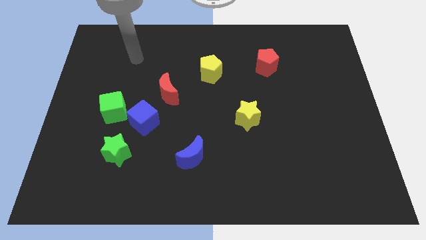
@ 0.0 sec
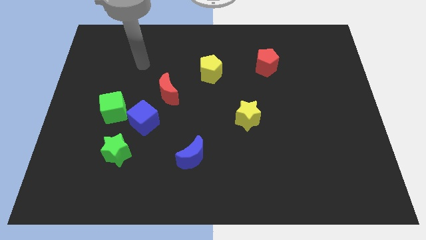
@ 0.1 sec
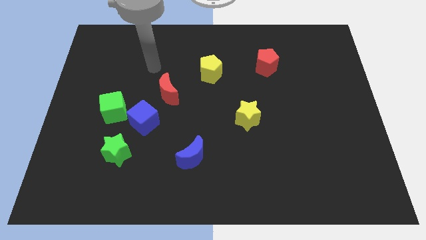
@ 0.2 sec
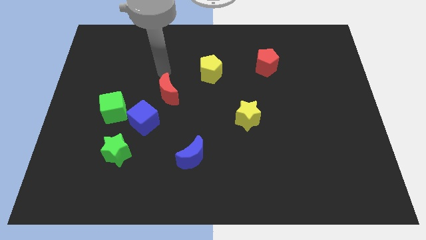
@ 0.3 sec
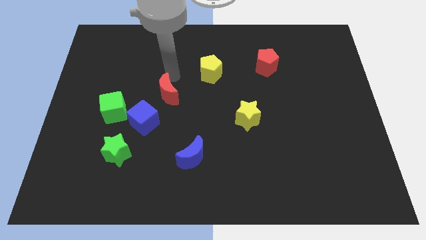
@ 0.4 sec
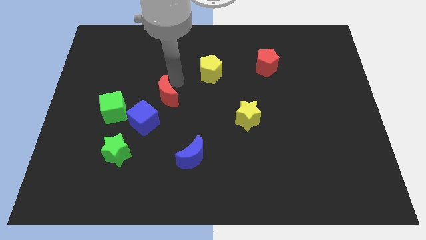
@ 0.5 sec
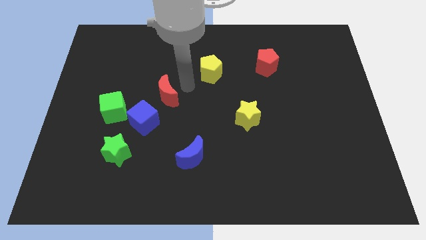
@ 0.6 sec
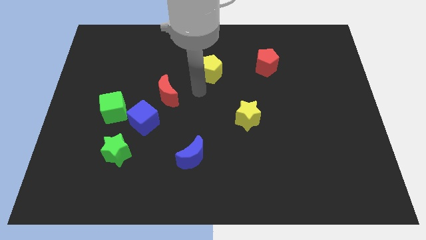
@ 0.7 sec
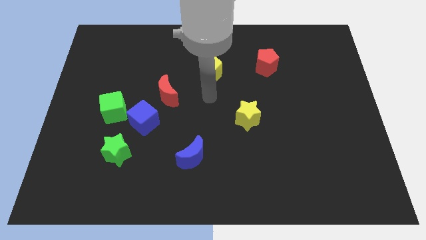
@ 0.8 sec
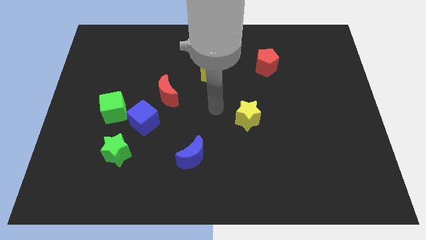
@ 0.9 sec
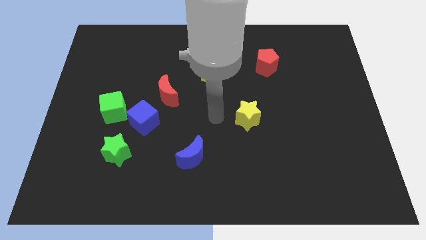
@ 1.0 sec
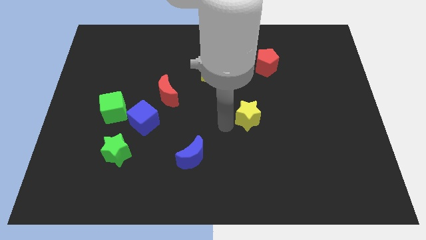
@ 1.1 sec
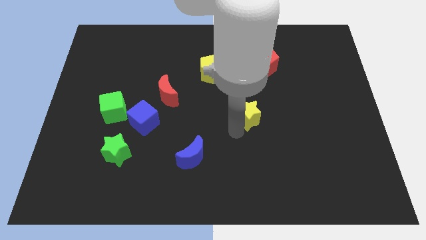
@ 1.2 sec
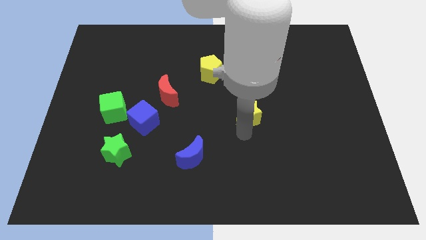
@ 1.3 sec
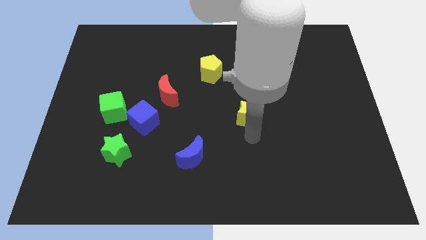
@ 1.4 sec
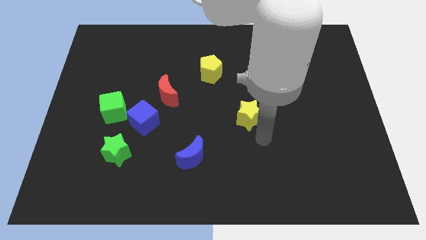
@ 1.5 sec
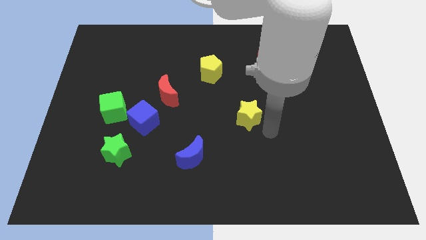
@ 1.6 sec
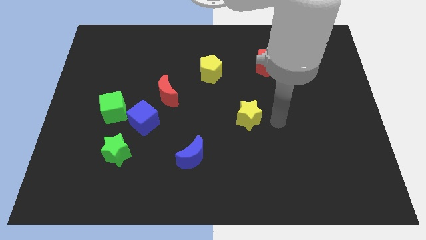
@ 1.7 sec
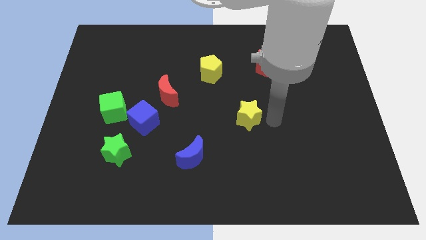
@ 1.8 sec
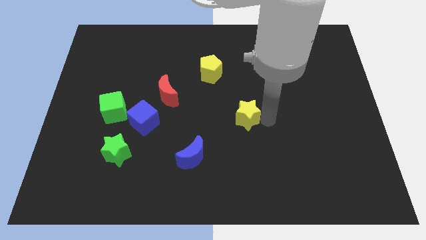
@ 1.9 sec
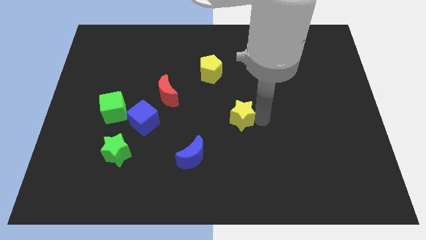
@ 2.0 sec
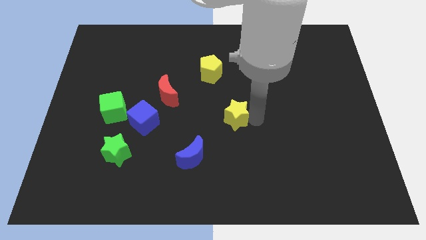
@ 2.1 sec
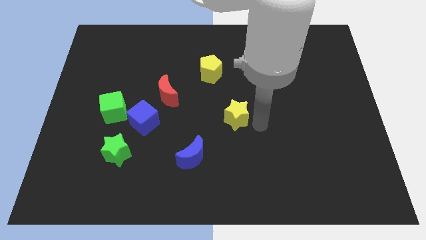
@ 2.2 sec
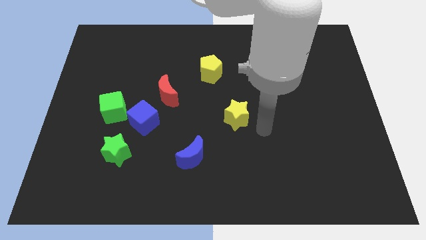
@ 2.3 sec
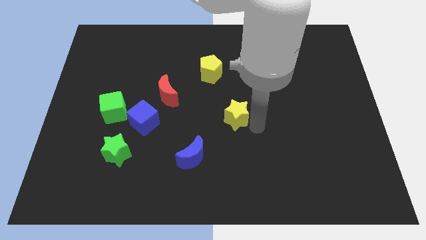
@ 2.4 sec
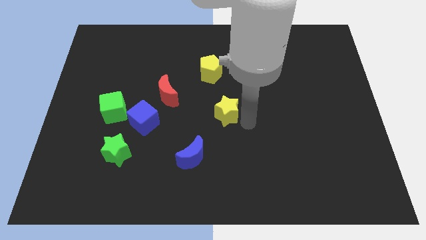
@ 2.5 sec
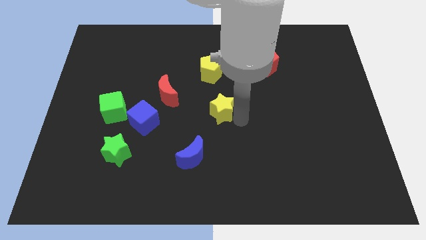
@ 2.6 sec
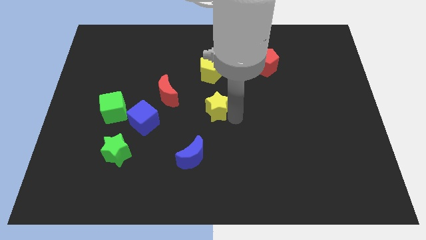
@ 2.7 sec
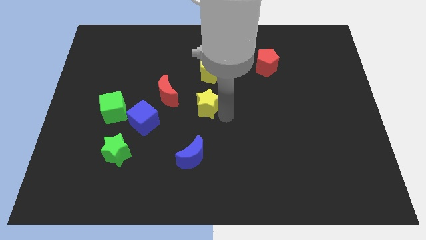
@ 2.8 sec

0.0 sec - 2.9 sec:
push the yellow star upwards and then to the left somewhat

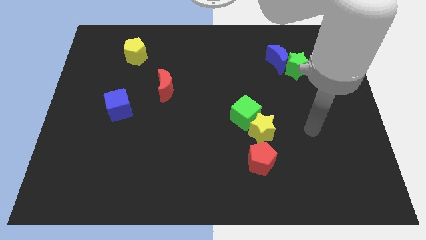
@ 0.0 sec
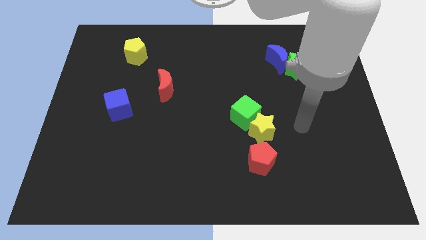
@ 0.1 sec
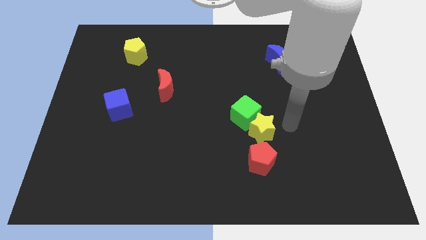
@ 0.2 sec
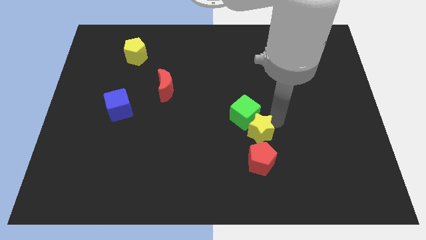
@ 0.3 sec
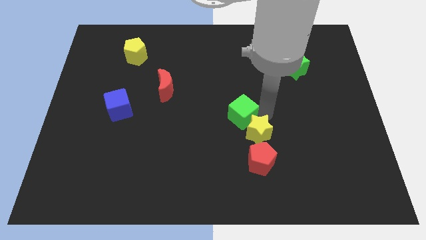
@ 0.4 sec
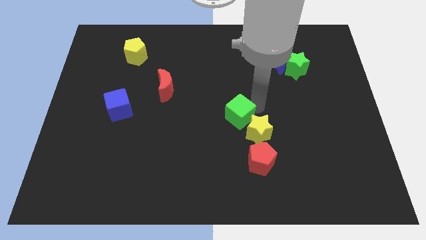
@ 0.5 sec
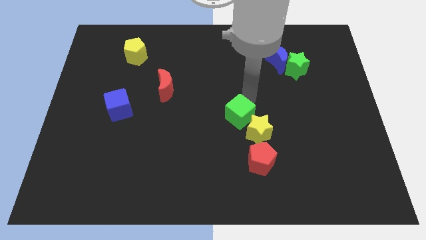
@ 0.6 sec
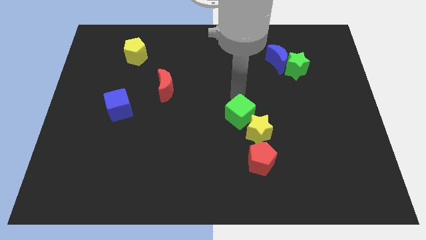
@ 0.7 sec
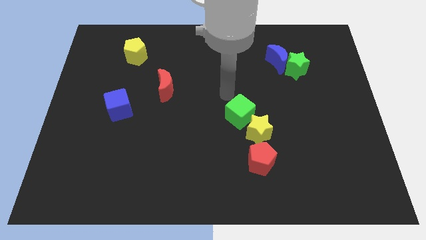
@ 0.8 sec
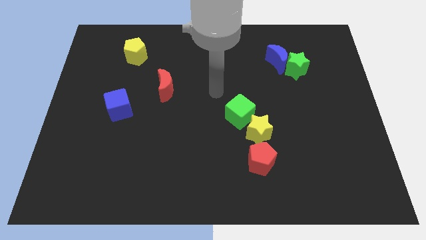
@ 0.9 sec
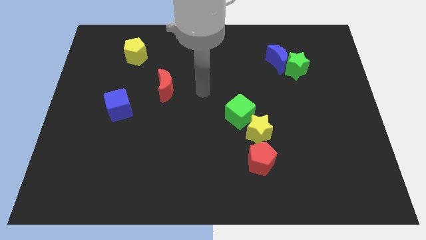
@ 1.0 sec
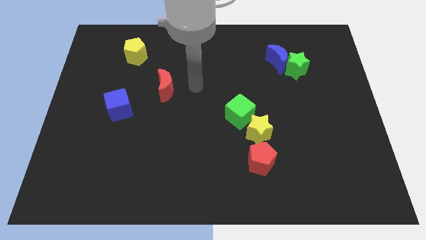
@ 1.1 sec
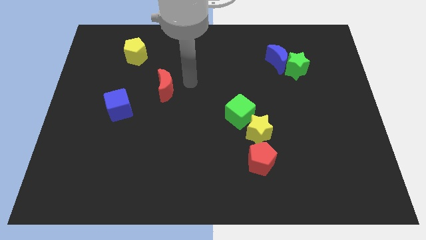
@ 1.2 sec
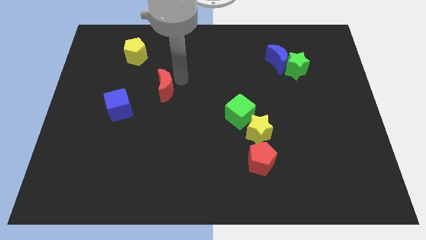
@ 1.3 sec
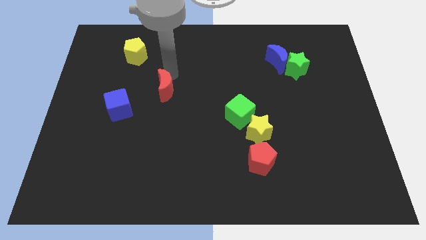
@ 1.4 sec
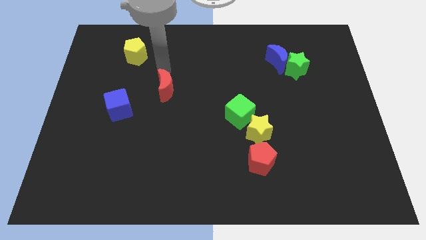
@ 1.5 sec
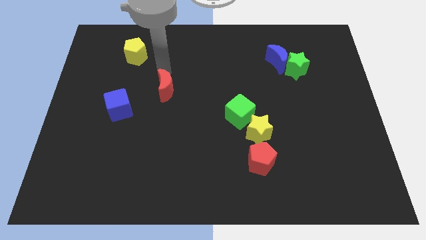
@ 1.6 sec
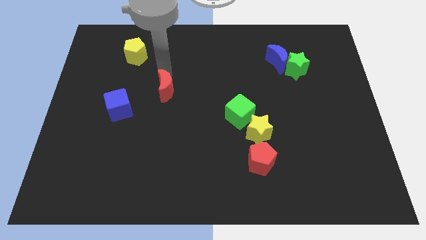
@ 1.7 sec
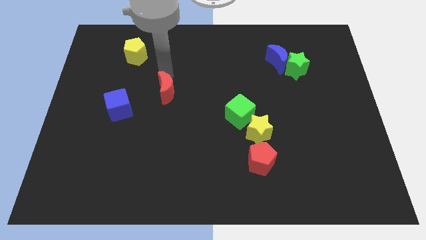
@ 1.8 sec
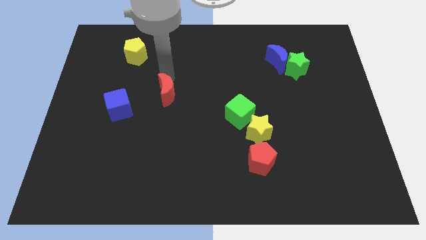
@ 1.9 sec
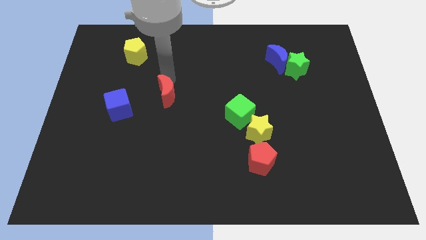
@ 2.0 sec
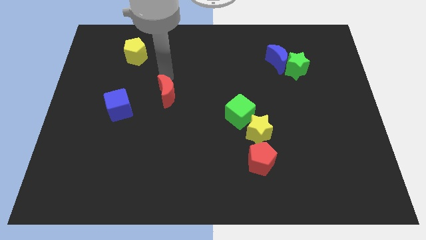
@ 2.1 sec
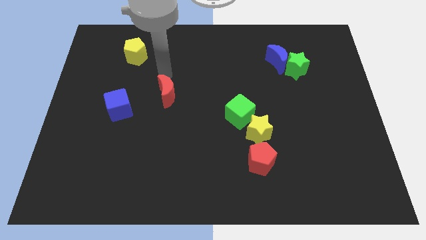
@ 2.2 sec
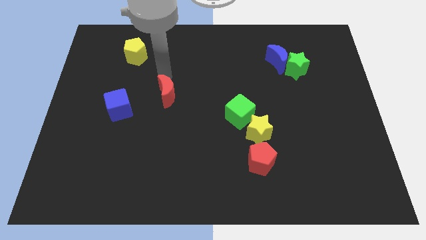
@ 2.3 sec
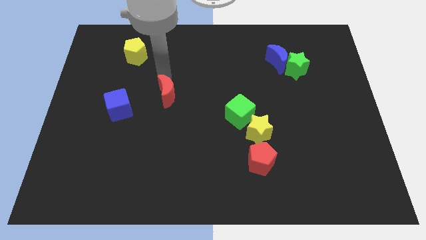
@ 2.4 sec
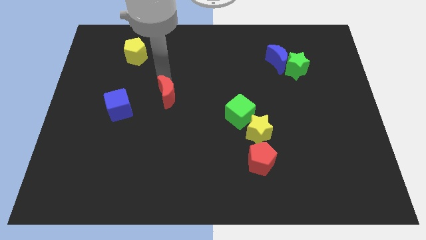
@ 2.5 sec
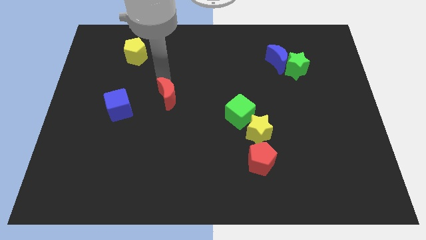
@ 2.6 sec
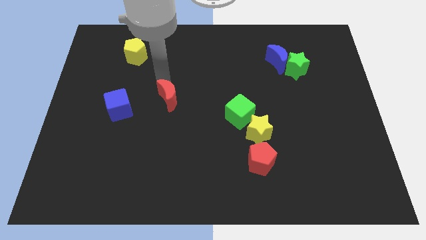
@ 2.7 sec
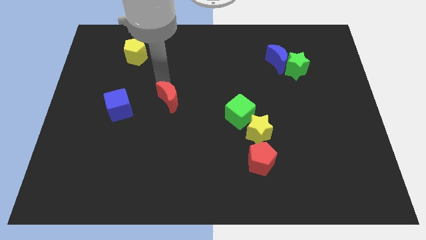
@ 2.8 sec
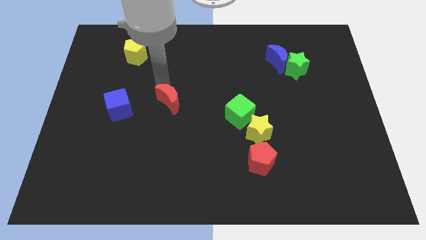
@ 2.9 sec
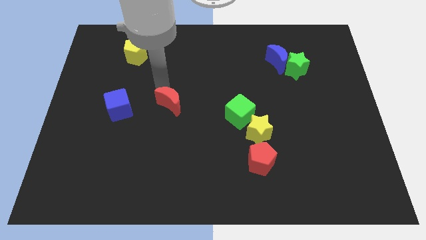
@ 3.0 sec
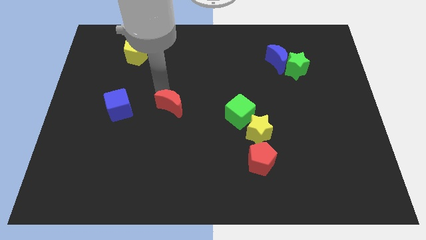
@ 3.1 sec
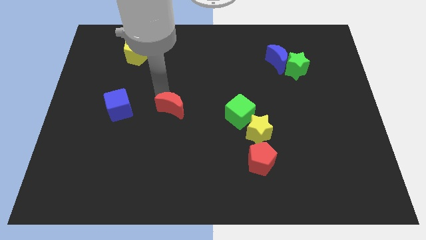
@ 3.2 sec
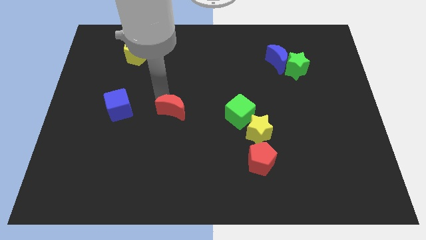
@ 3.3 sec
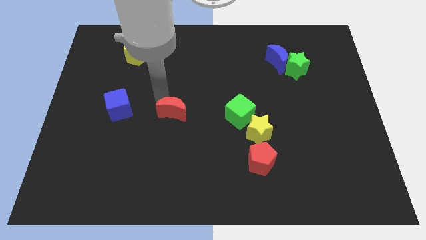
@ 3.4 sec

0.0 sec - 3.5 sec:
slightly move the red moon downwards

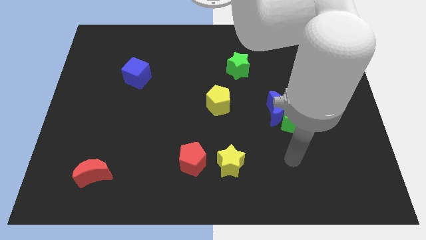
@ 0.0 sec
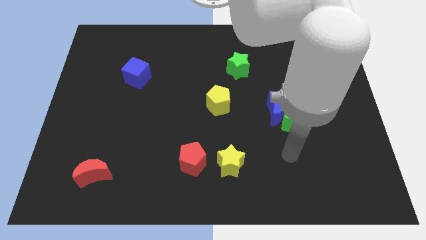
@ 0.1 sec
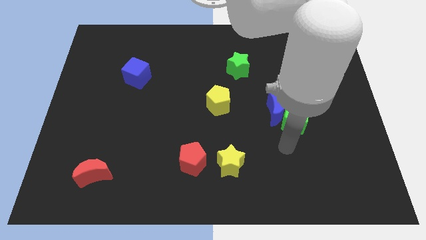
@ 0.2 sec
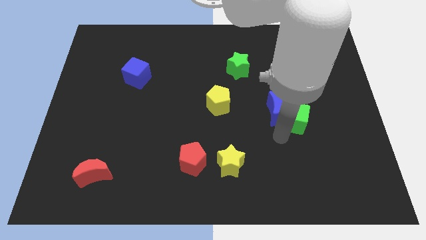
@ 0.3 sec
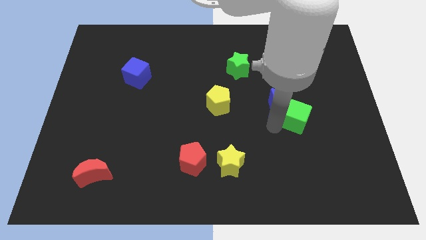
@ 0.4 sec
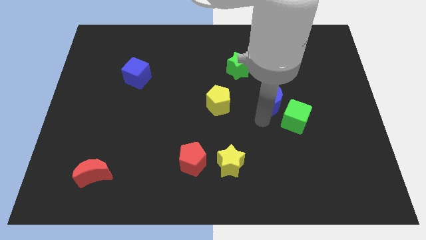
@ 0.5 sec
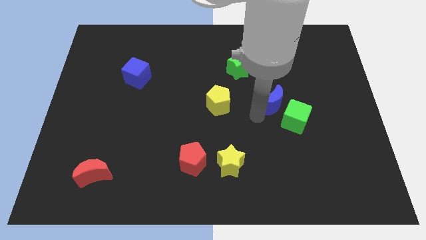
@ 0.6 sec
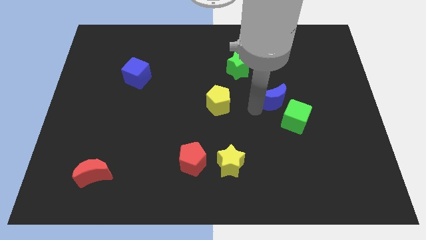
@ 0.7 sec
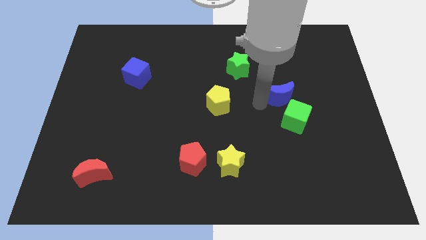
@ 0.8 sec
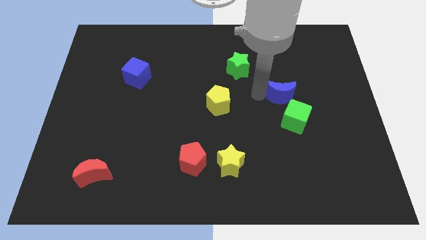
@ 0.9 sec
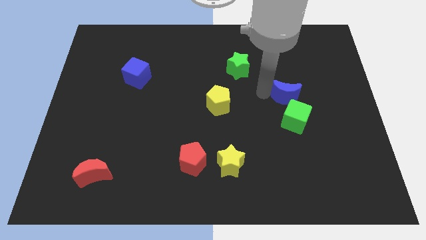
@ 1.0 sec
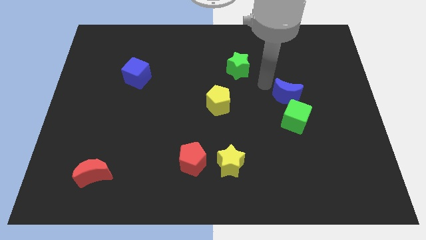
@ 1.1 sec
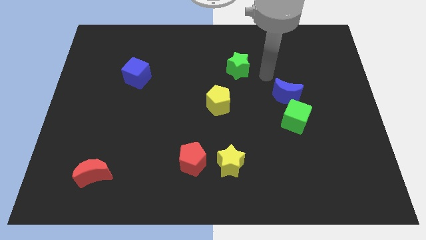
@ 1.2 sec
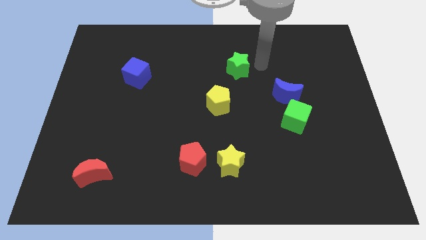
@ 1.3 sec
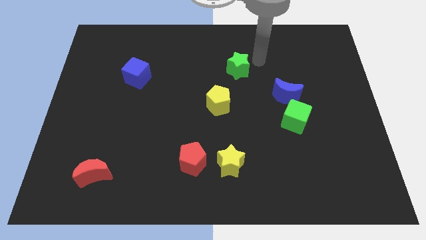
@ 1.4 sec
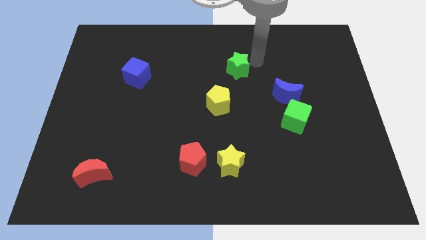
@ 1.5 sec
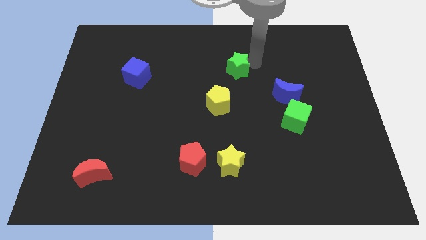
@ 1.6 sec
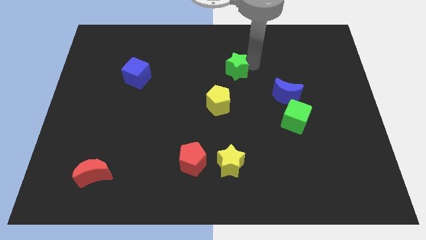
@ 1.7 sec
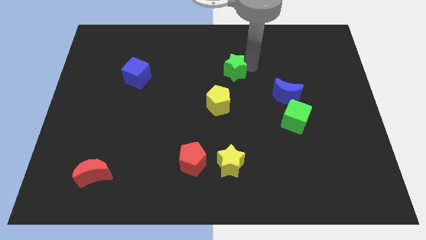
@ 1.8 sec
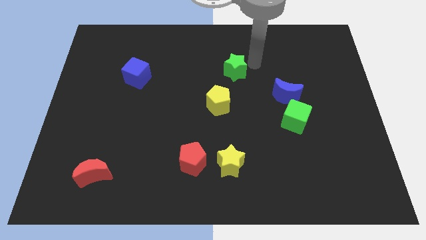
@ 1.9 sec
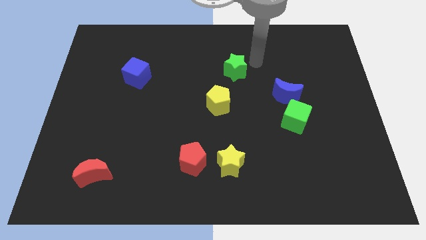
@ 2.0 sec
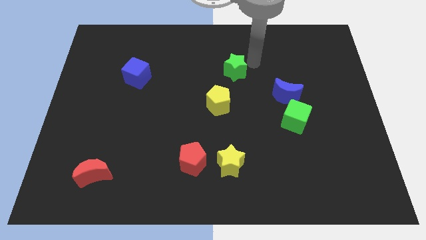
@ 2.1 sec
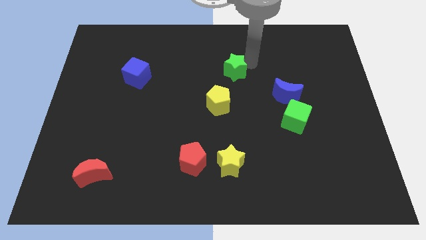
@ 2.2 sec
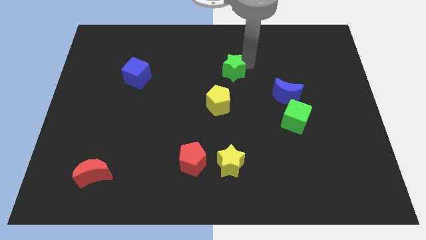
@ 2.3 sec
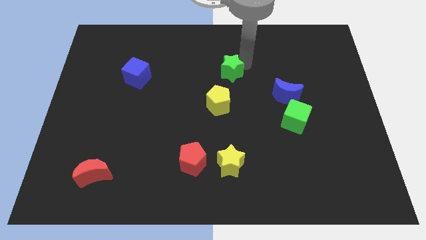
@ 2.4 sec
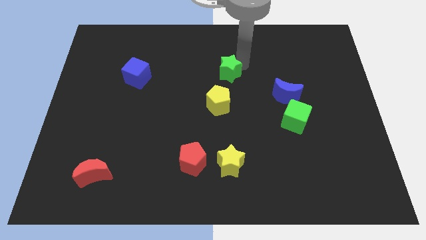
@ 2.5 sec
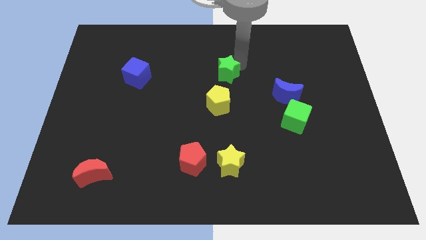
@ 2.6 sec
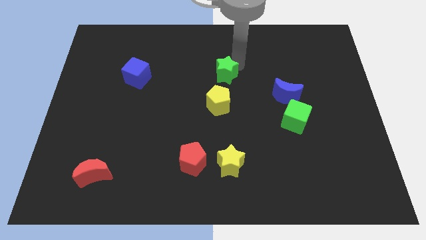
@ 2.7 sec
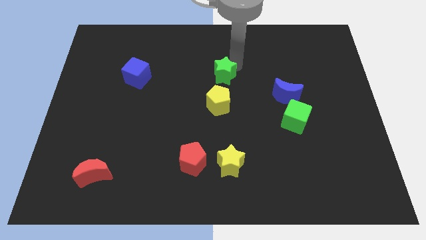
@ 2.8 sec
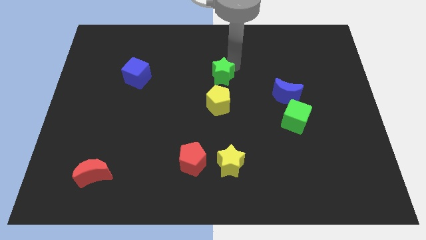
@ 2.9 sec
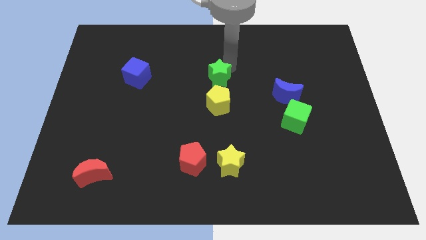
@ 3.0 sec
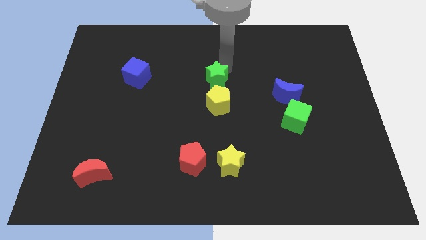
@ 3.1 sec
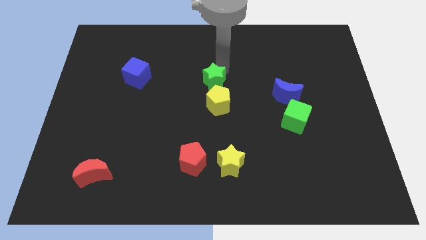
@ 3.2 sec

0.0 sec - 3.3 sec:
slide the green star a little bit down and to the left
